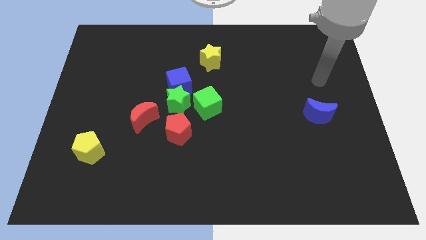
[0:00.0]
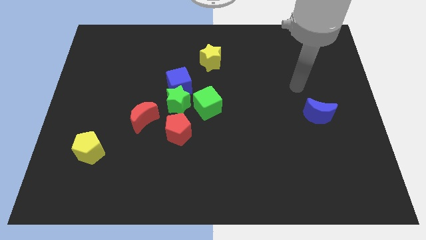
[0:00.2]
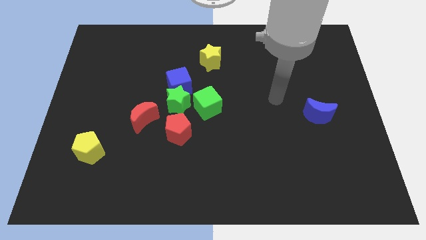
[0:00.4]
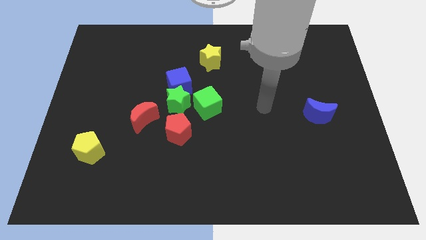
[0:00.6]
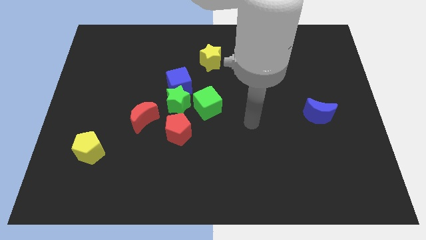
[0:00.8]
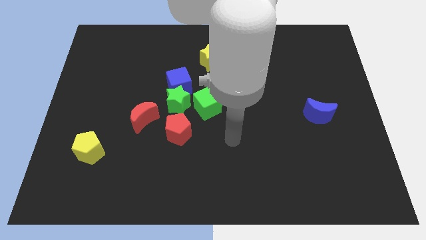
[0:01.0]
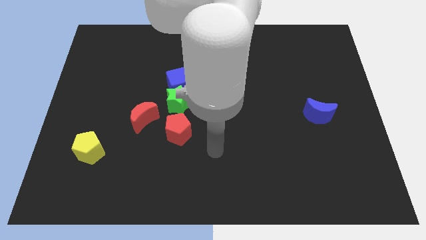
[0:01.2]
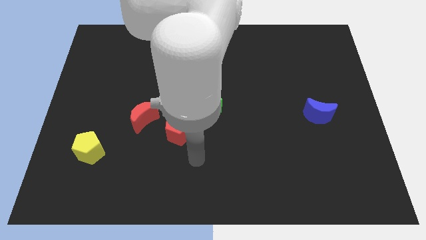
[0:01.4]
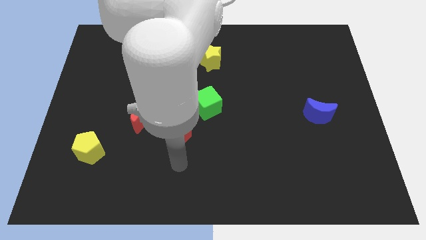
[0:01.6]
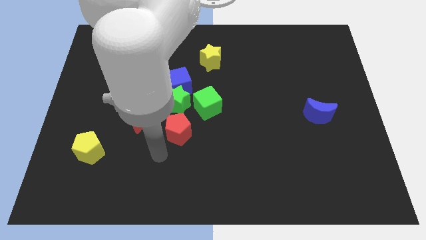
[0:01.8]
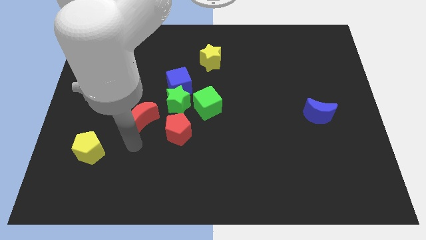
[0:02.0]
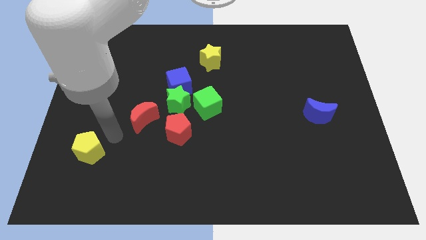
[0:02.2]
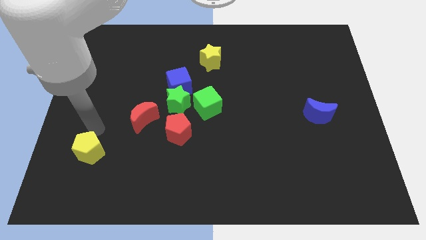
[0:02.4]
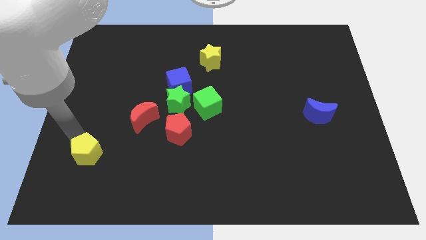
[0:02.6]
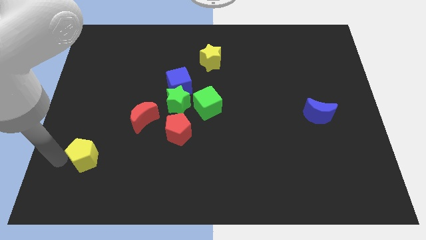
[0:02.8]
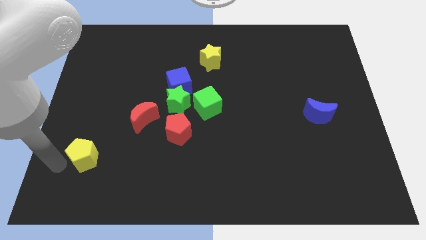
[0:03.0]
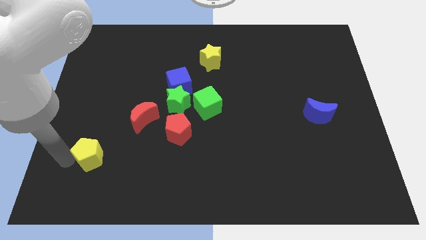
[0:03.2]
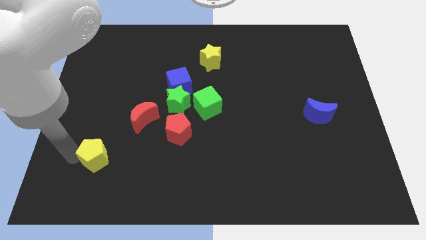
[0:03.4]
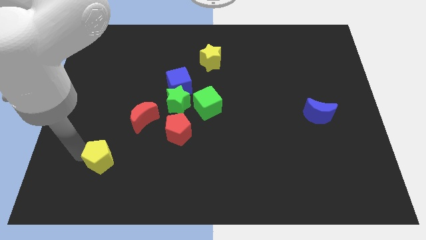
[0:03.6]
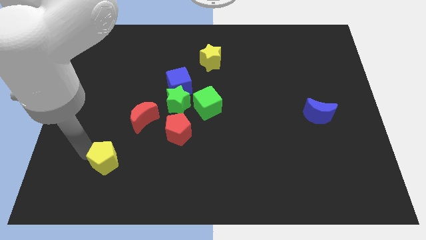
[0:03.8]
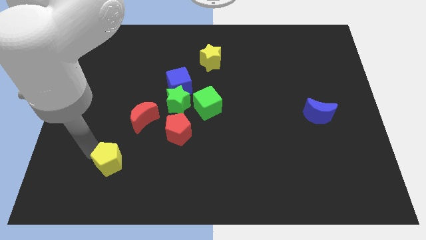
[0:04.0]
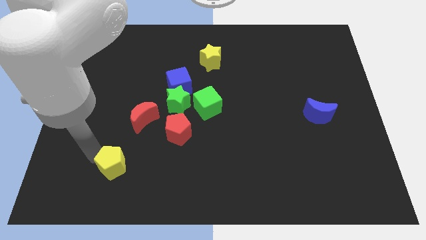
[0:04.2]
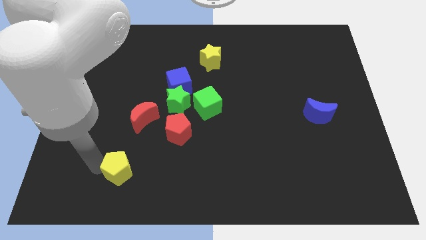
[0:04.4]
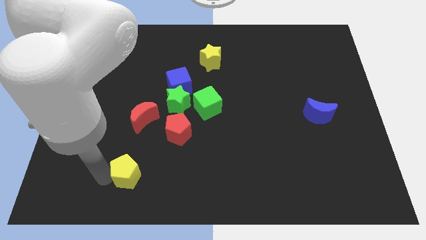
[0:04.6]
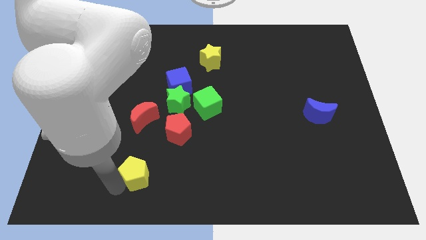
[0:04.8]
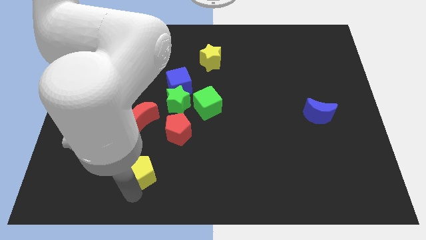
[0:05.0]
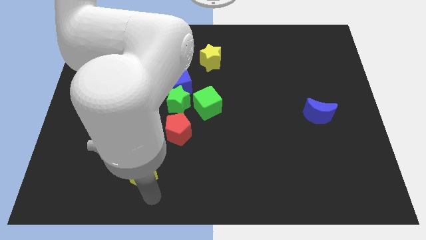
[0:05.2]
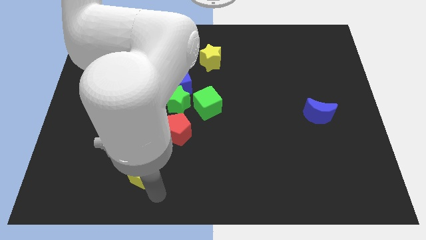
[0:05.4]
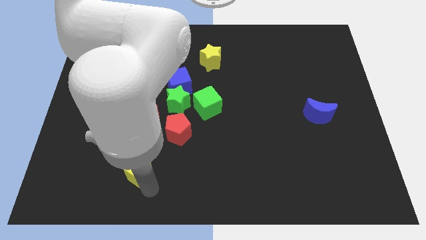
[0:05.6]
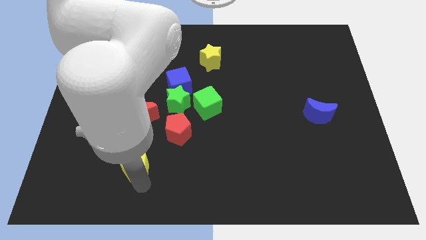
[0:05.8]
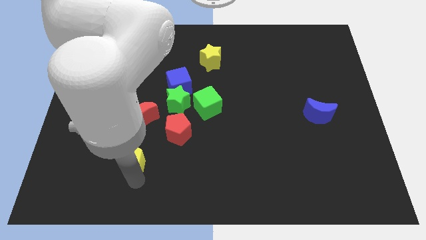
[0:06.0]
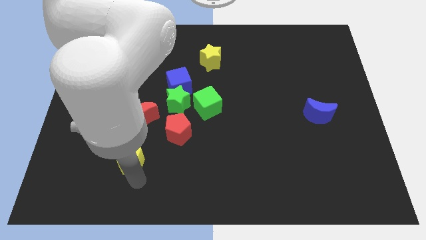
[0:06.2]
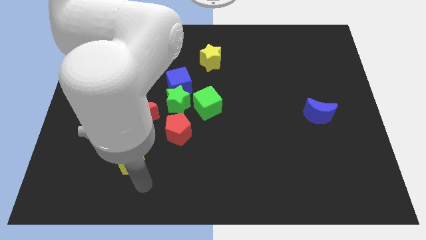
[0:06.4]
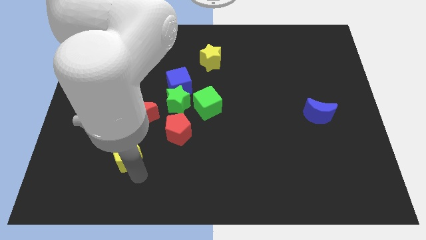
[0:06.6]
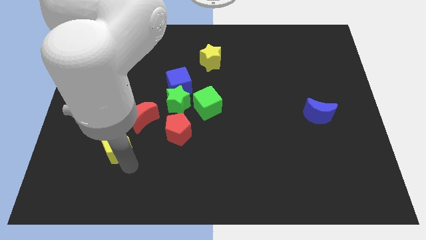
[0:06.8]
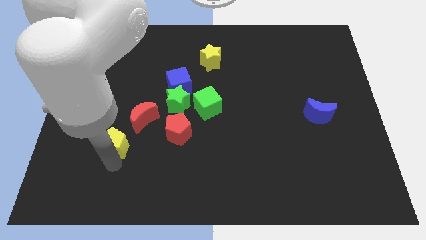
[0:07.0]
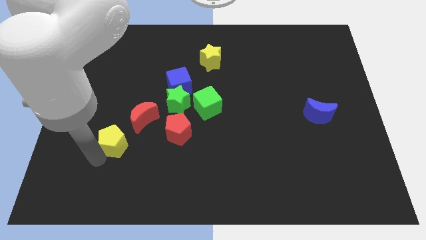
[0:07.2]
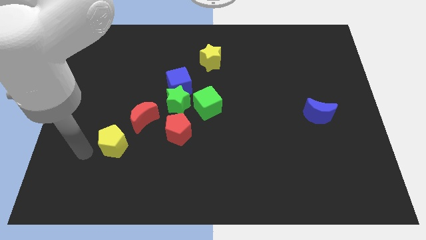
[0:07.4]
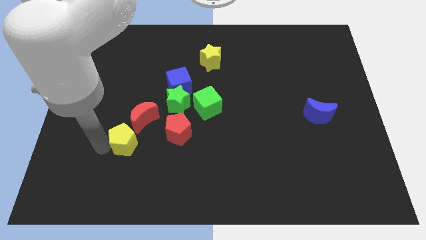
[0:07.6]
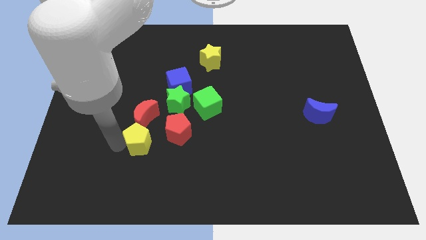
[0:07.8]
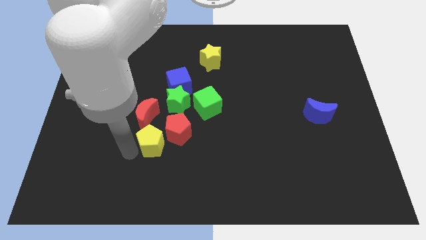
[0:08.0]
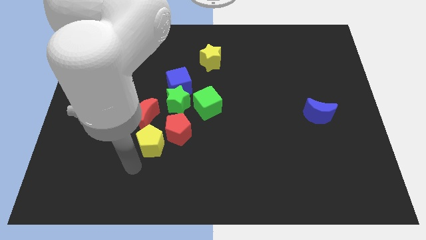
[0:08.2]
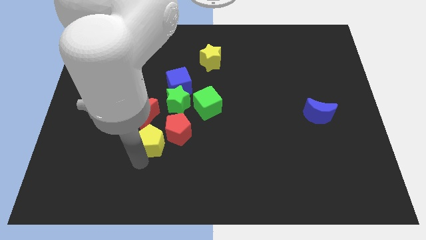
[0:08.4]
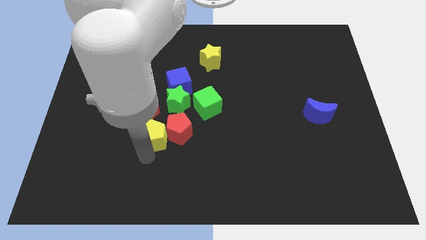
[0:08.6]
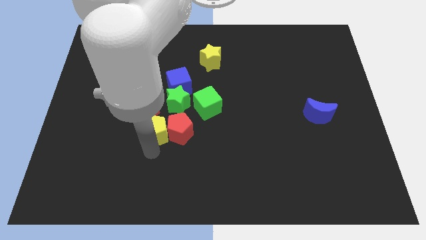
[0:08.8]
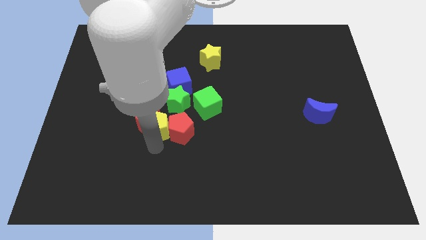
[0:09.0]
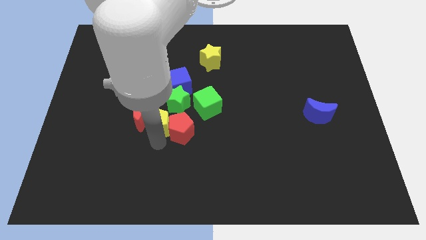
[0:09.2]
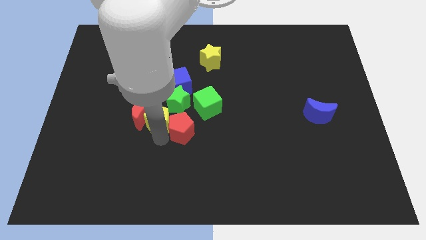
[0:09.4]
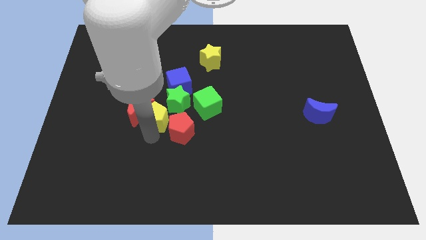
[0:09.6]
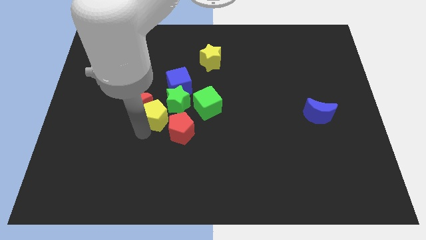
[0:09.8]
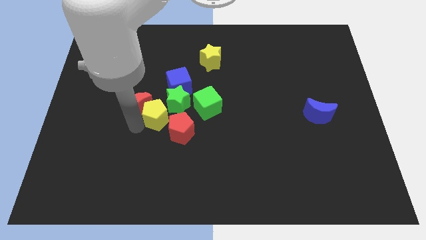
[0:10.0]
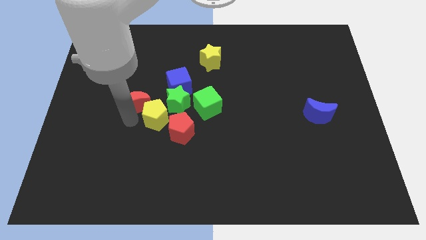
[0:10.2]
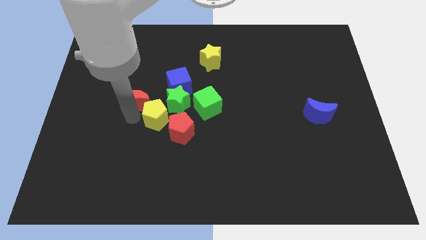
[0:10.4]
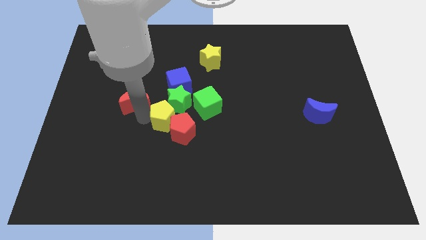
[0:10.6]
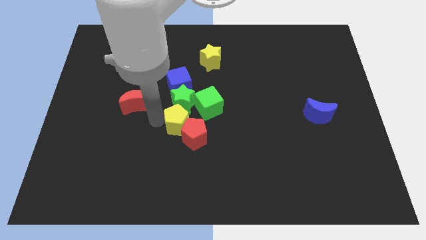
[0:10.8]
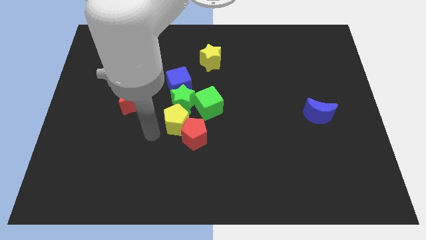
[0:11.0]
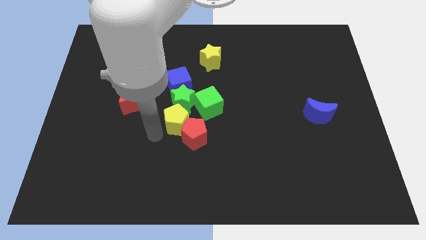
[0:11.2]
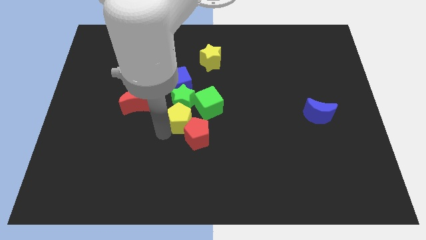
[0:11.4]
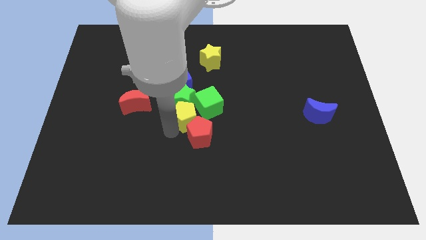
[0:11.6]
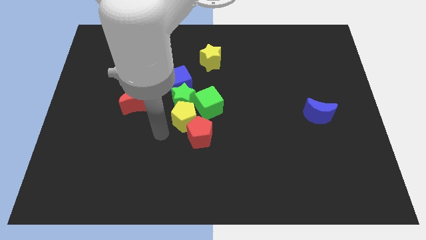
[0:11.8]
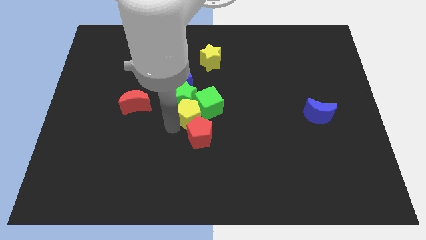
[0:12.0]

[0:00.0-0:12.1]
push the yellow pentagon close to the green cube

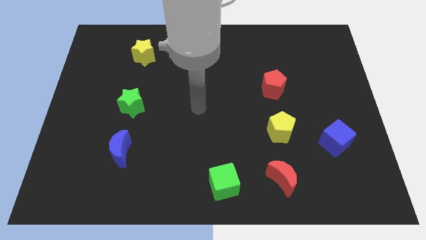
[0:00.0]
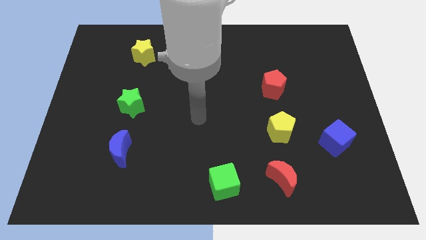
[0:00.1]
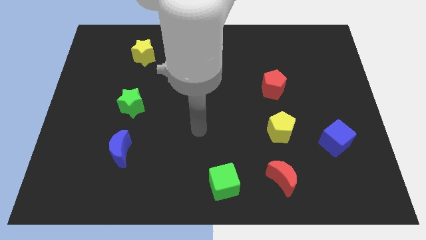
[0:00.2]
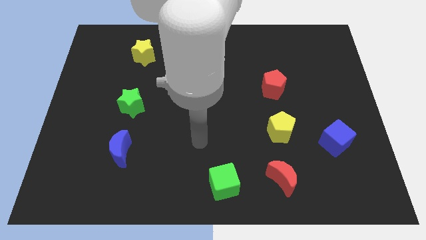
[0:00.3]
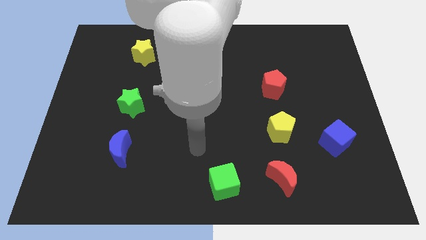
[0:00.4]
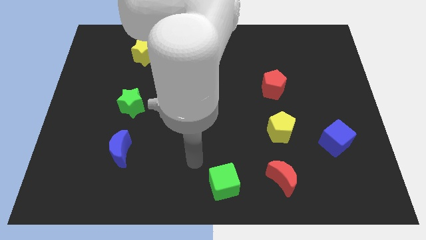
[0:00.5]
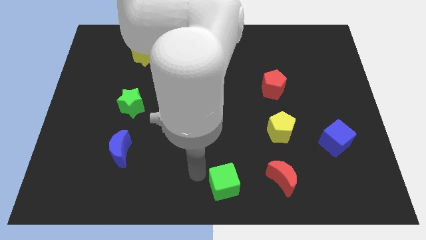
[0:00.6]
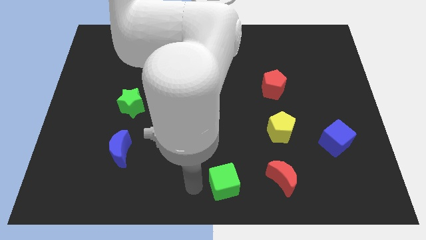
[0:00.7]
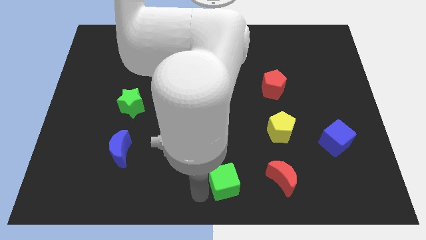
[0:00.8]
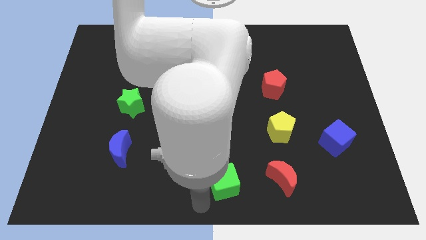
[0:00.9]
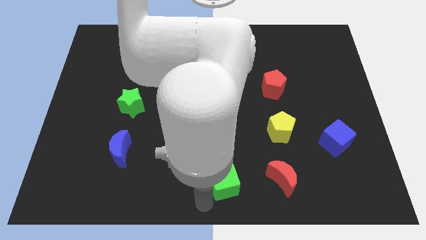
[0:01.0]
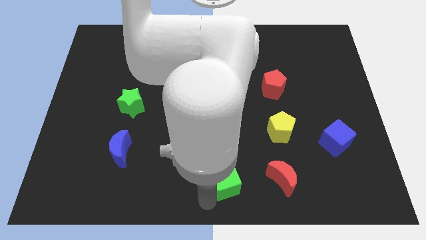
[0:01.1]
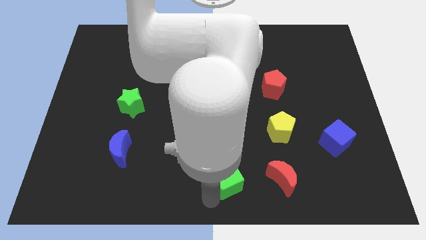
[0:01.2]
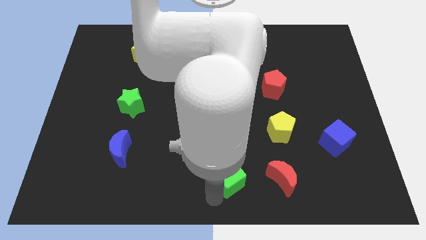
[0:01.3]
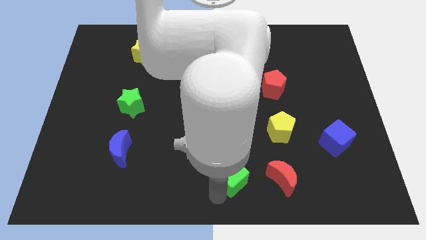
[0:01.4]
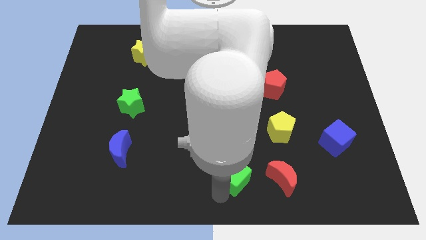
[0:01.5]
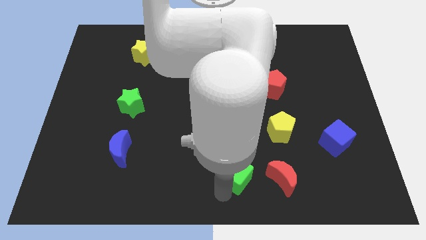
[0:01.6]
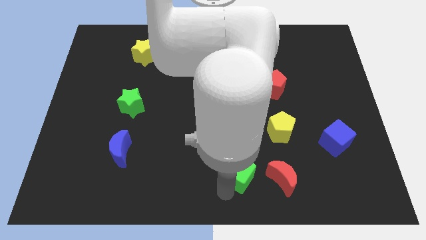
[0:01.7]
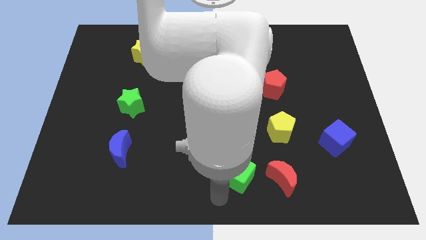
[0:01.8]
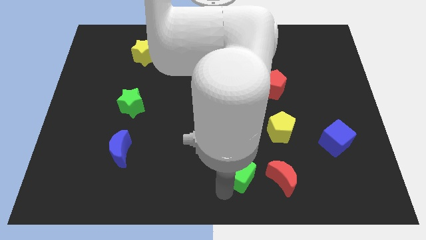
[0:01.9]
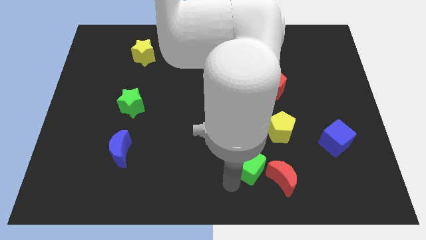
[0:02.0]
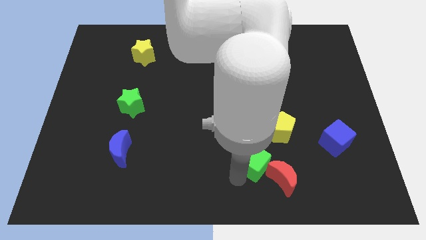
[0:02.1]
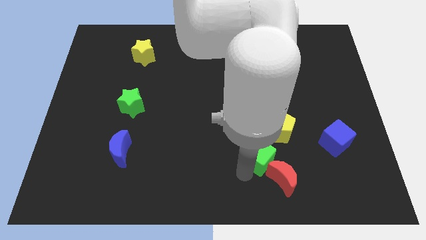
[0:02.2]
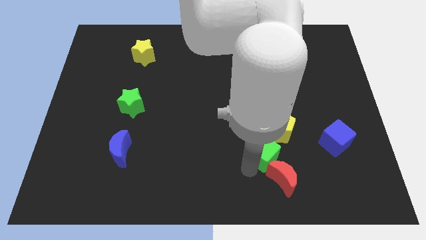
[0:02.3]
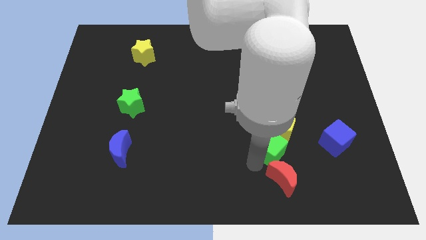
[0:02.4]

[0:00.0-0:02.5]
put the green cube towards the yellow pentagon
